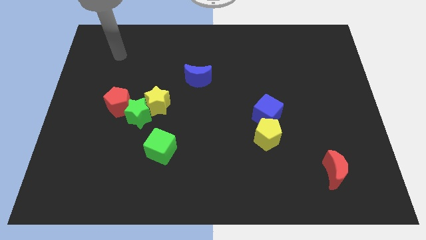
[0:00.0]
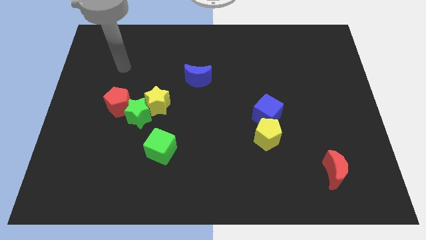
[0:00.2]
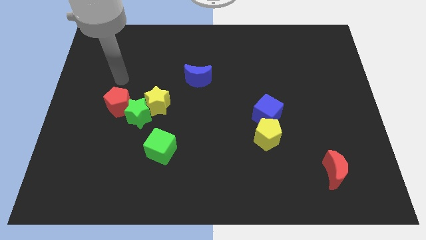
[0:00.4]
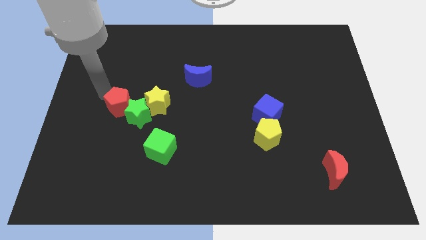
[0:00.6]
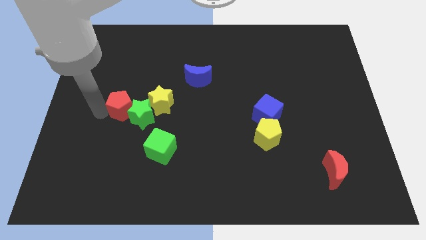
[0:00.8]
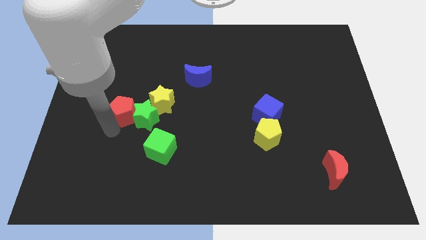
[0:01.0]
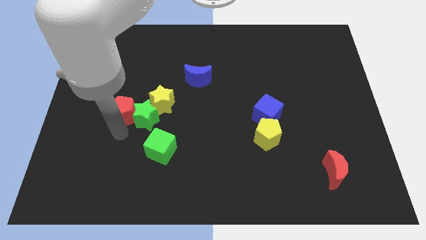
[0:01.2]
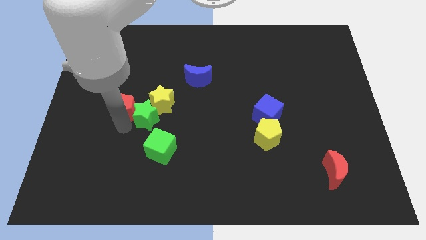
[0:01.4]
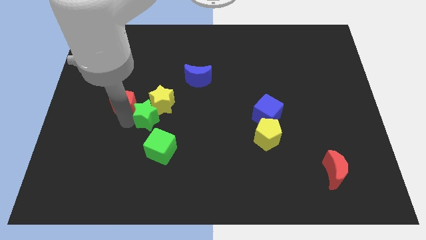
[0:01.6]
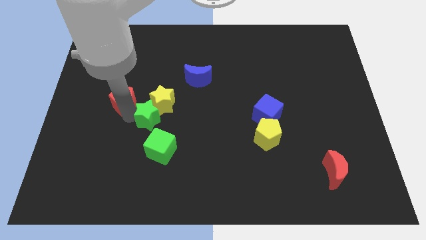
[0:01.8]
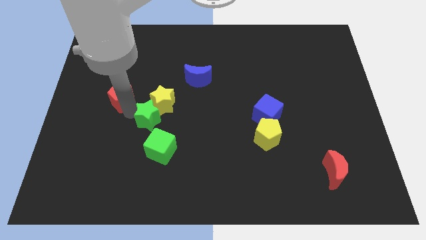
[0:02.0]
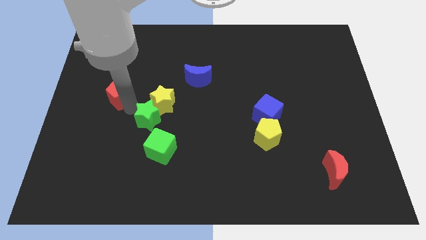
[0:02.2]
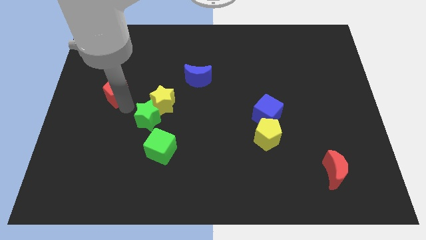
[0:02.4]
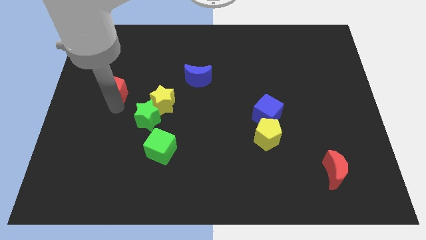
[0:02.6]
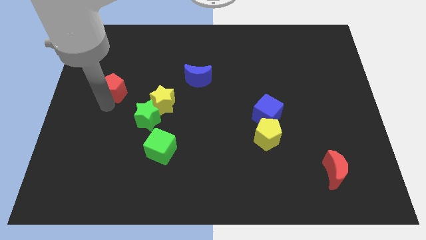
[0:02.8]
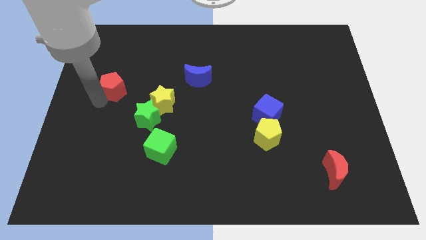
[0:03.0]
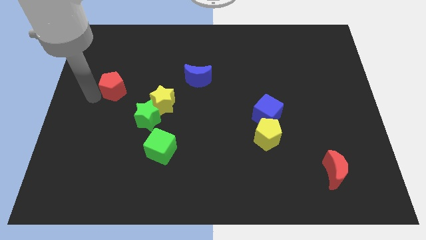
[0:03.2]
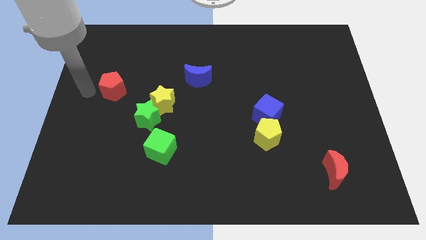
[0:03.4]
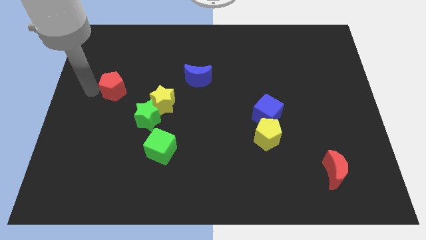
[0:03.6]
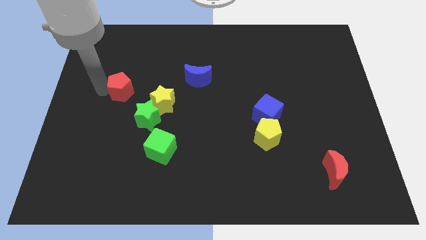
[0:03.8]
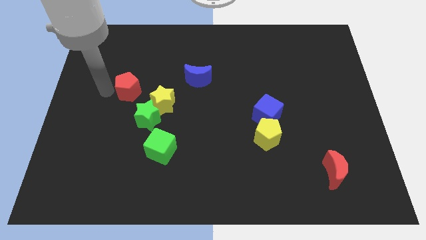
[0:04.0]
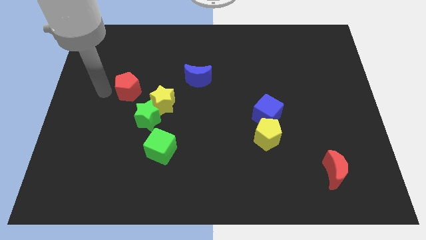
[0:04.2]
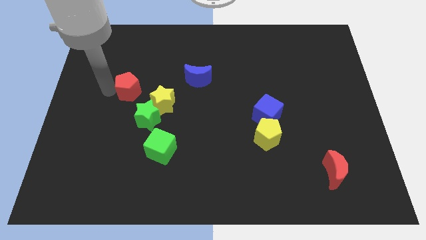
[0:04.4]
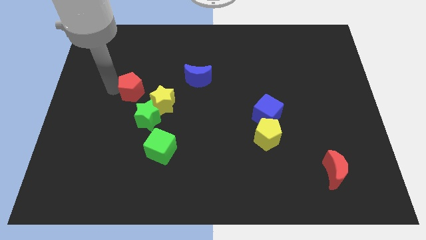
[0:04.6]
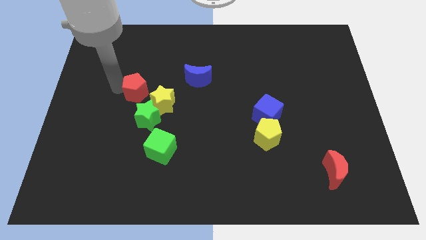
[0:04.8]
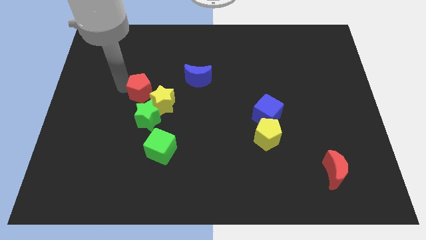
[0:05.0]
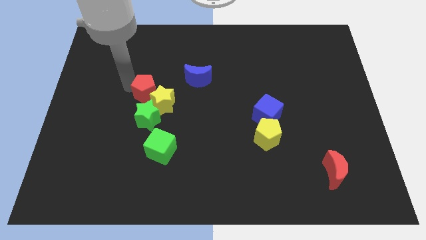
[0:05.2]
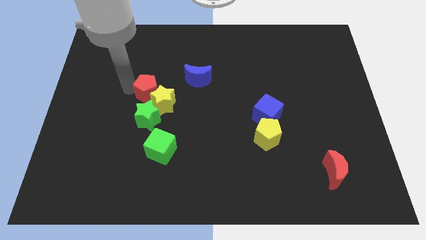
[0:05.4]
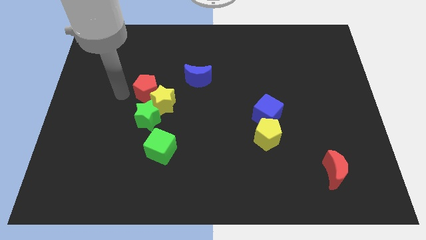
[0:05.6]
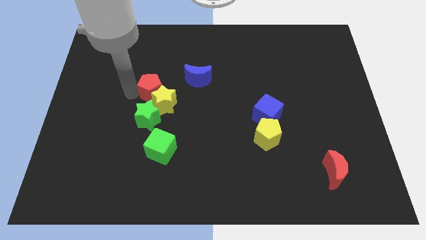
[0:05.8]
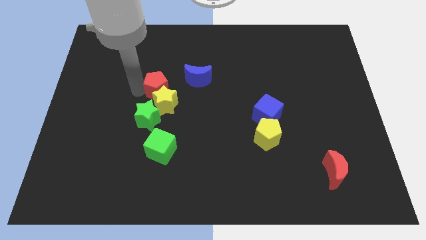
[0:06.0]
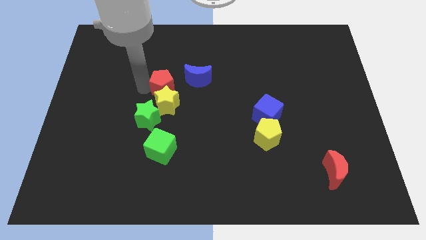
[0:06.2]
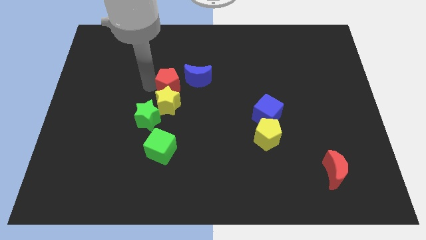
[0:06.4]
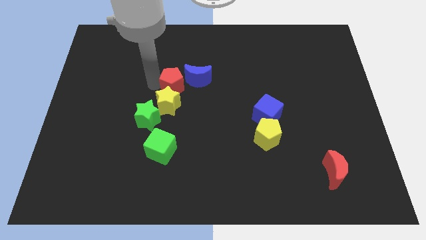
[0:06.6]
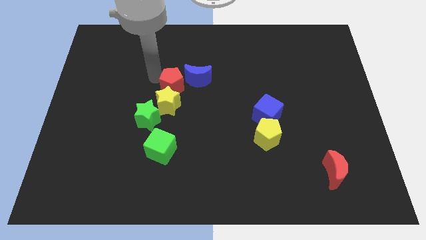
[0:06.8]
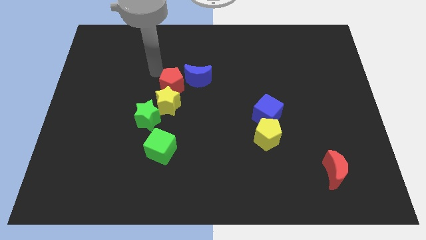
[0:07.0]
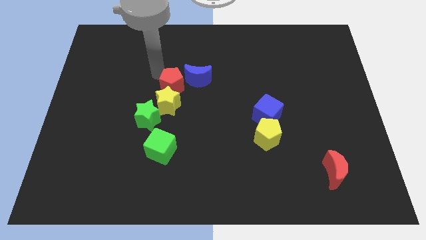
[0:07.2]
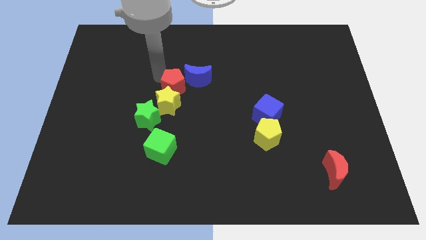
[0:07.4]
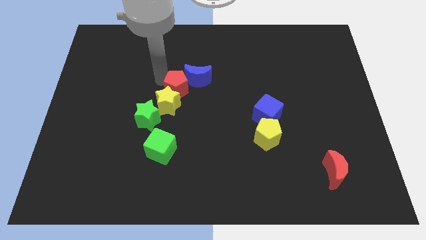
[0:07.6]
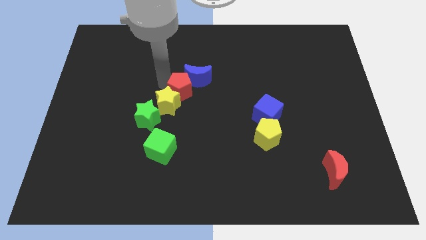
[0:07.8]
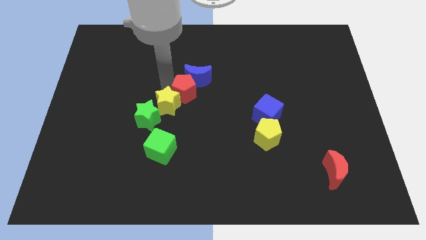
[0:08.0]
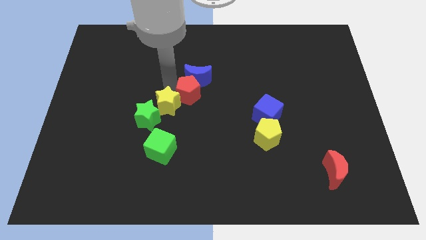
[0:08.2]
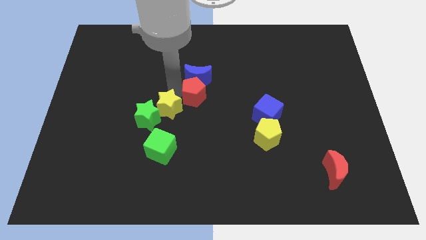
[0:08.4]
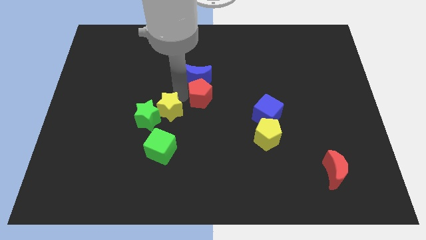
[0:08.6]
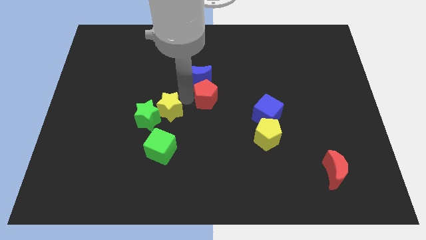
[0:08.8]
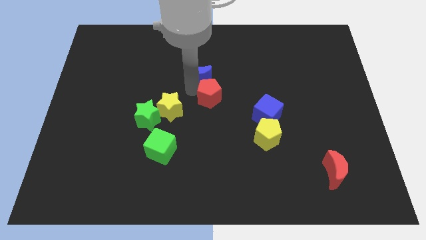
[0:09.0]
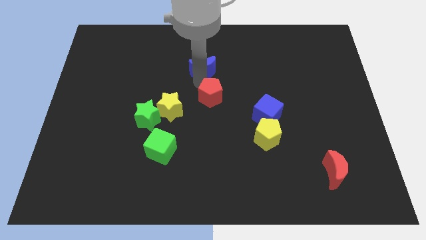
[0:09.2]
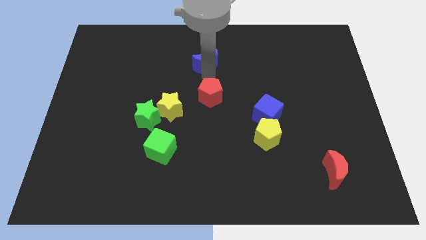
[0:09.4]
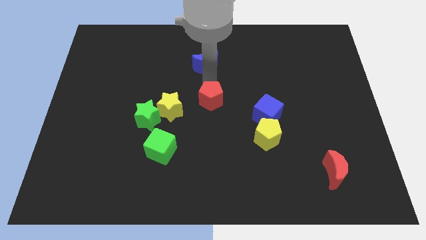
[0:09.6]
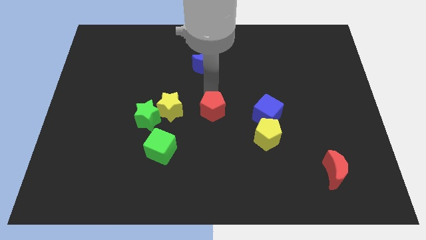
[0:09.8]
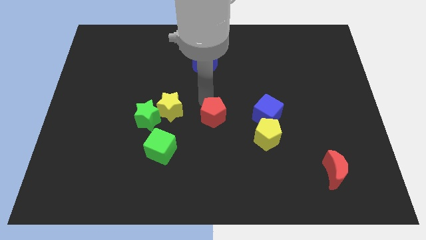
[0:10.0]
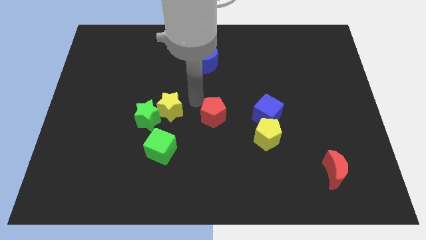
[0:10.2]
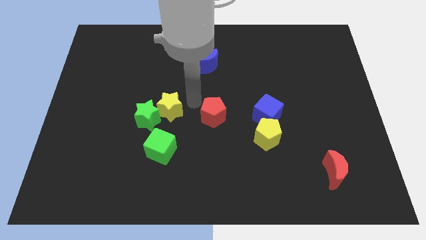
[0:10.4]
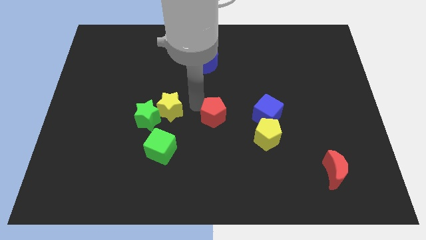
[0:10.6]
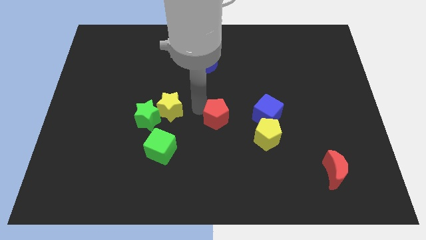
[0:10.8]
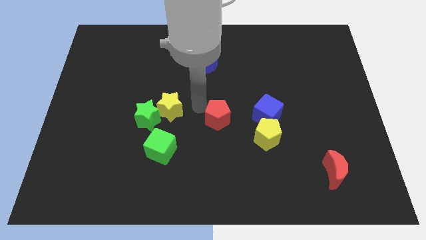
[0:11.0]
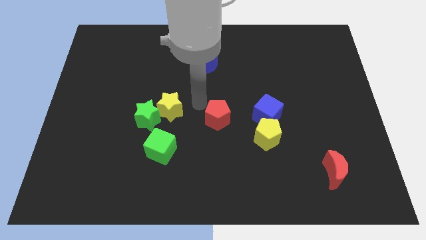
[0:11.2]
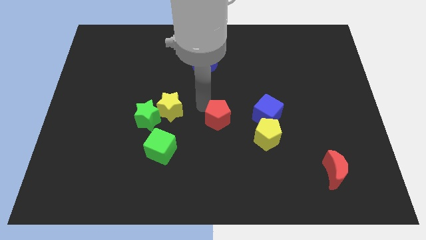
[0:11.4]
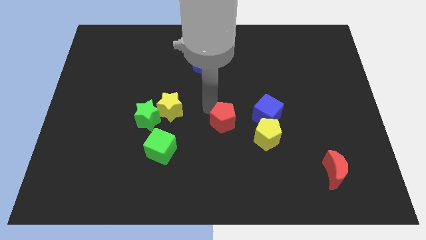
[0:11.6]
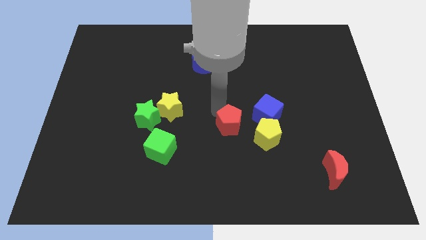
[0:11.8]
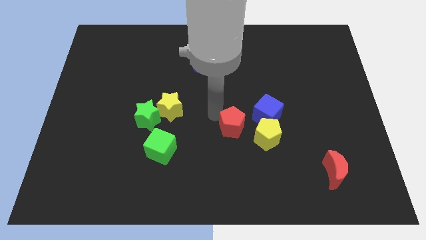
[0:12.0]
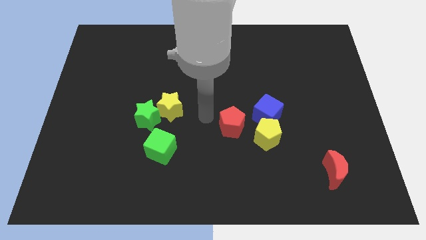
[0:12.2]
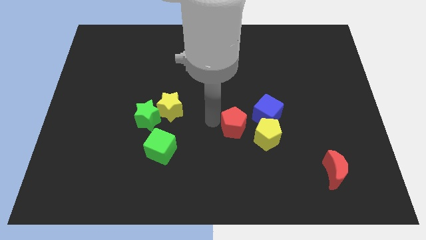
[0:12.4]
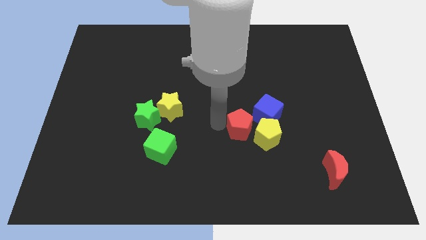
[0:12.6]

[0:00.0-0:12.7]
move the red pentagon towards the yellow pentagon

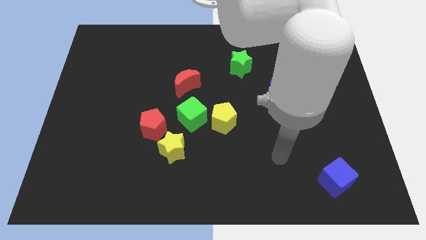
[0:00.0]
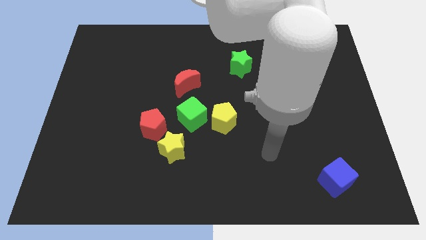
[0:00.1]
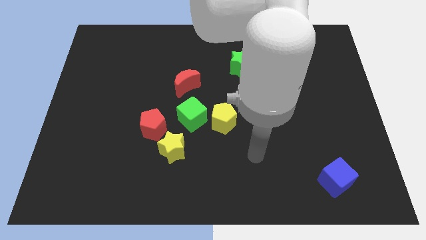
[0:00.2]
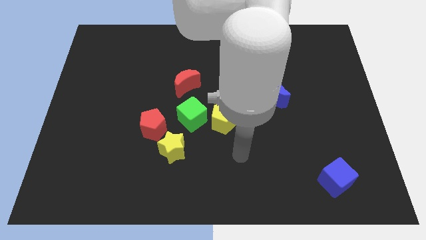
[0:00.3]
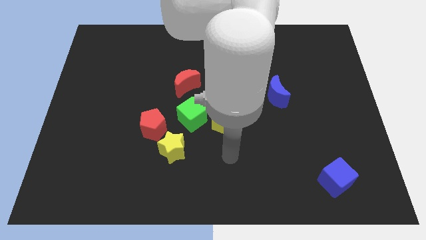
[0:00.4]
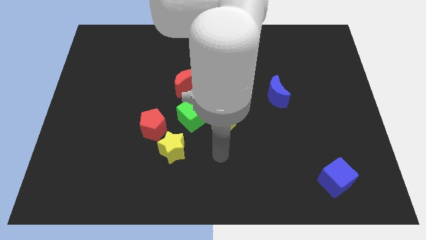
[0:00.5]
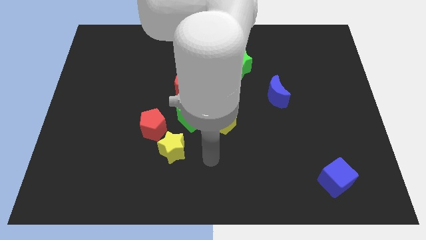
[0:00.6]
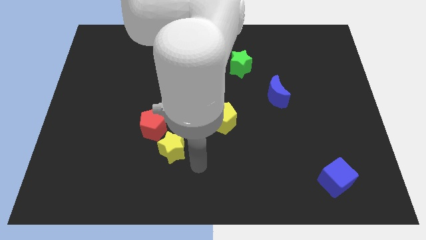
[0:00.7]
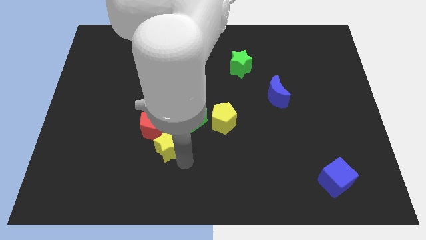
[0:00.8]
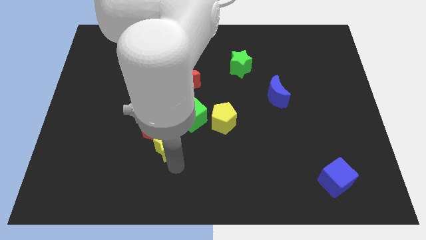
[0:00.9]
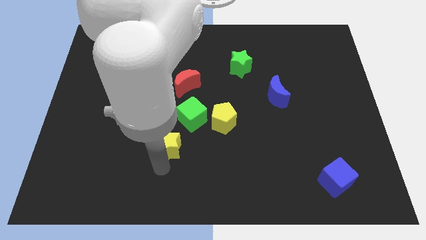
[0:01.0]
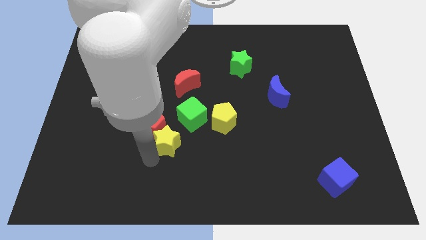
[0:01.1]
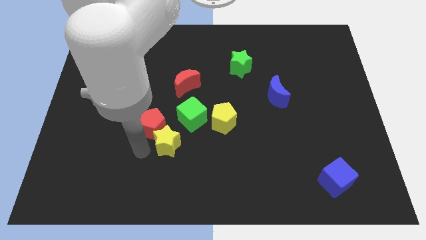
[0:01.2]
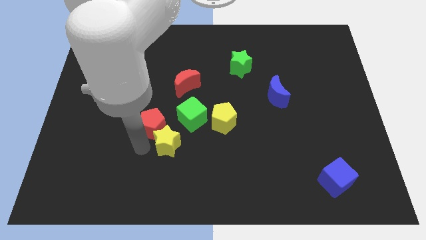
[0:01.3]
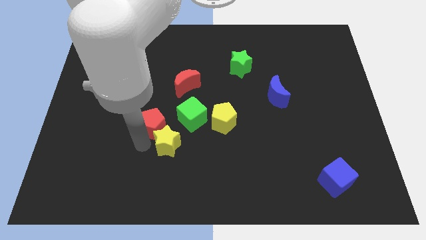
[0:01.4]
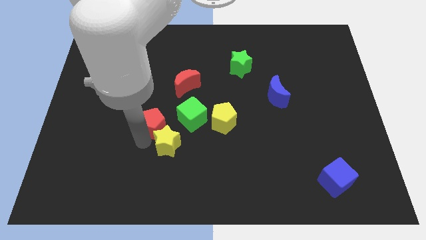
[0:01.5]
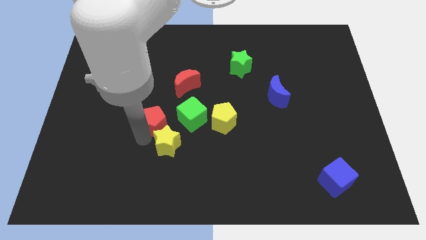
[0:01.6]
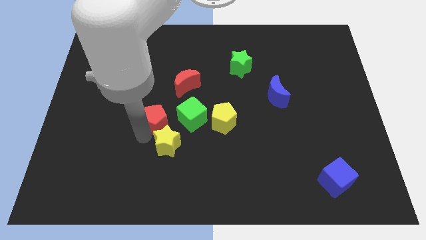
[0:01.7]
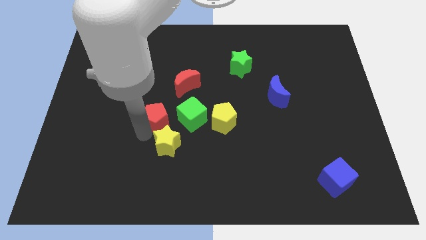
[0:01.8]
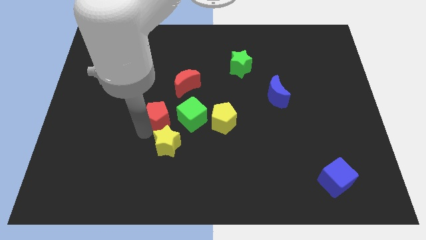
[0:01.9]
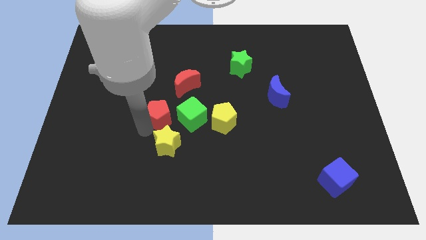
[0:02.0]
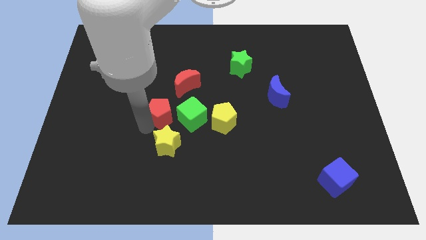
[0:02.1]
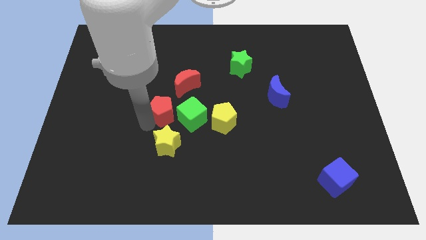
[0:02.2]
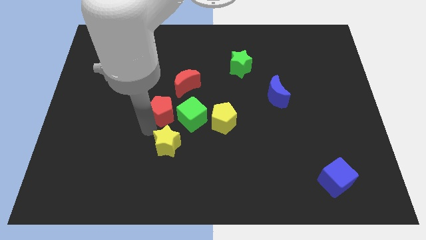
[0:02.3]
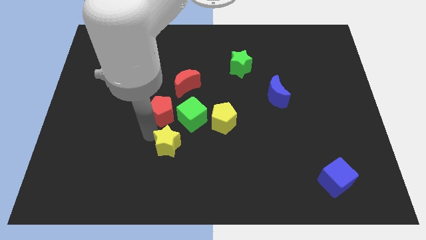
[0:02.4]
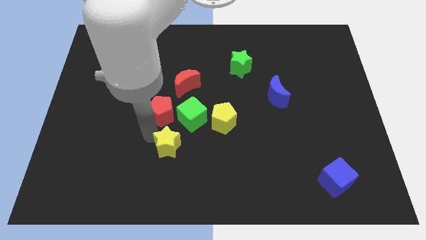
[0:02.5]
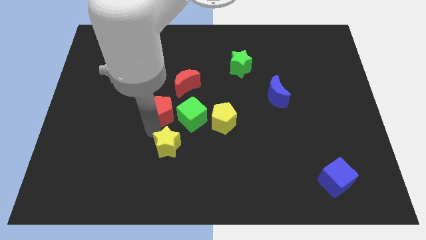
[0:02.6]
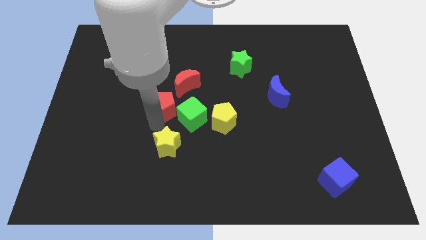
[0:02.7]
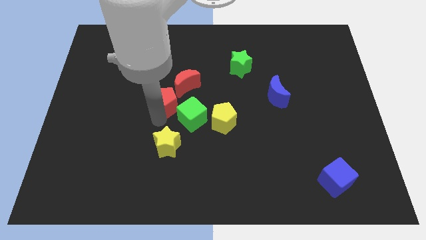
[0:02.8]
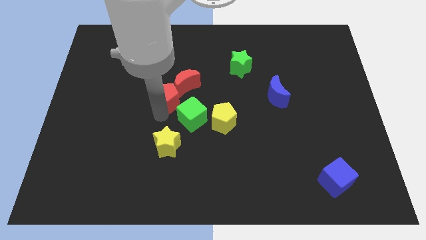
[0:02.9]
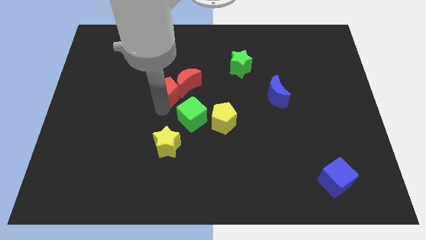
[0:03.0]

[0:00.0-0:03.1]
put the red pentagon next to the red moon
